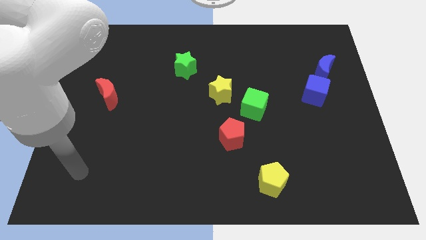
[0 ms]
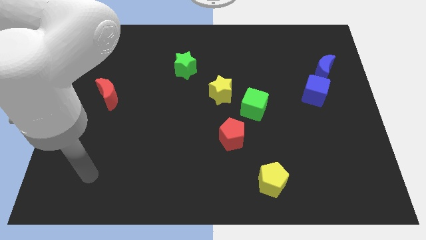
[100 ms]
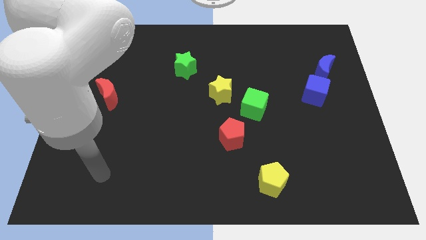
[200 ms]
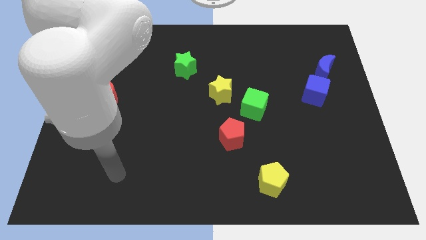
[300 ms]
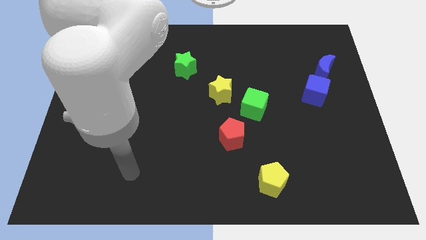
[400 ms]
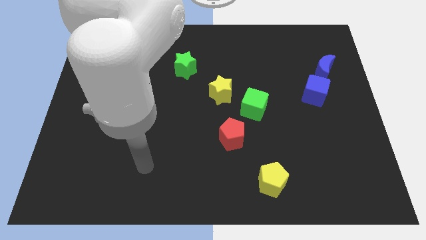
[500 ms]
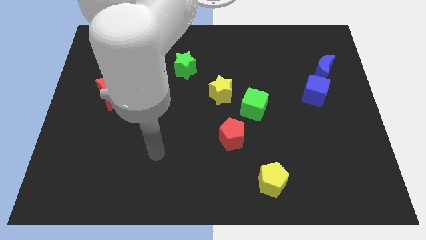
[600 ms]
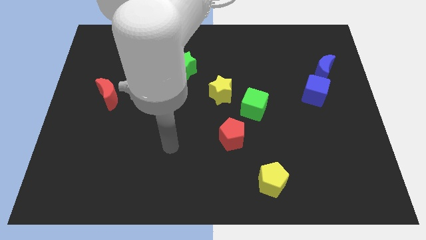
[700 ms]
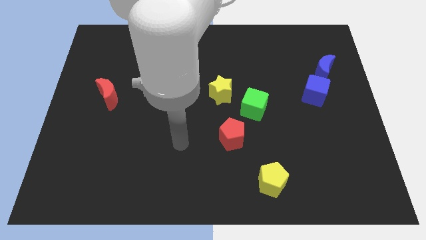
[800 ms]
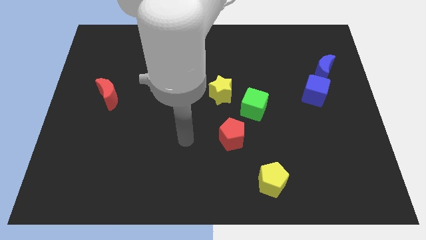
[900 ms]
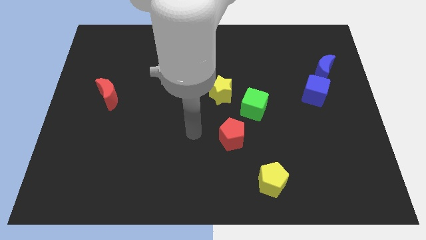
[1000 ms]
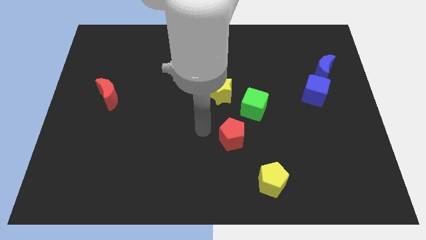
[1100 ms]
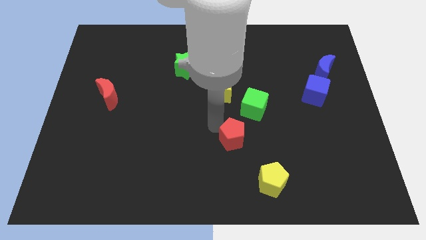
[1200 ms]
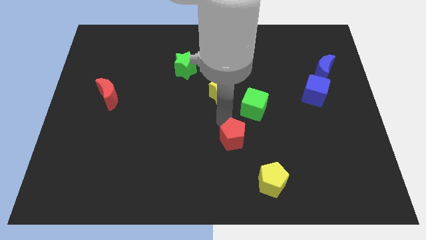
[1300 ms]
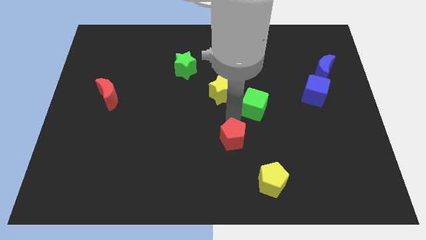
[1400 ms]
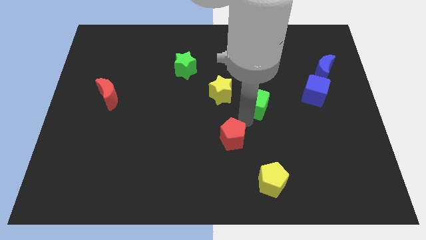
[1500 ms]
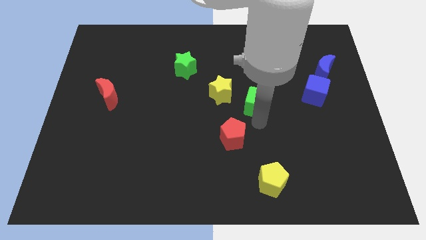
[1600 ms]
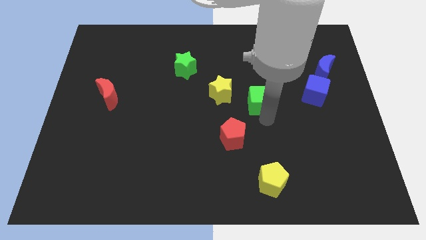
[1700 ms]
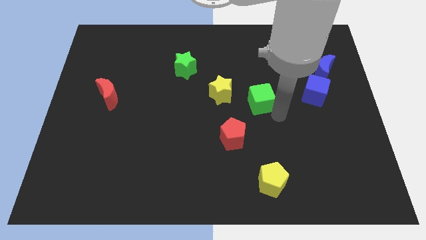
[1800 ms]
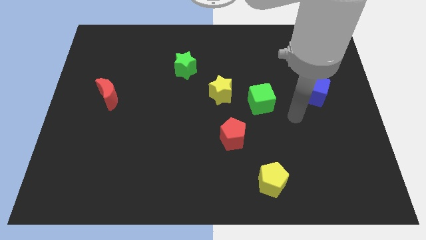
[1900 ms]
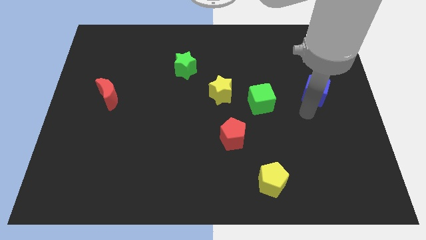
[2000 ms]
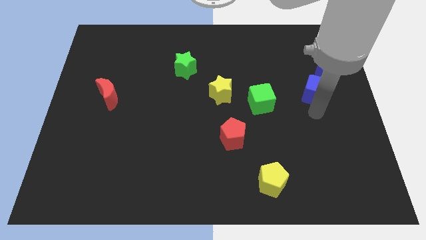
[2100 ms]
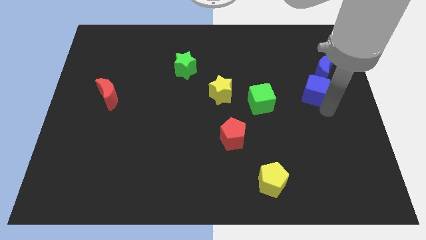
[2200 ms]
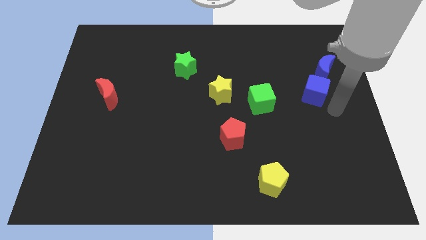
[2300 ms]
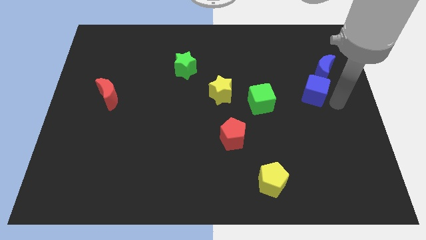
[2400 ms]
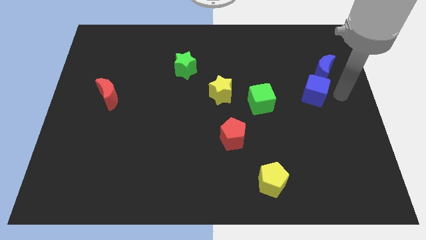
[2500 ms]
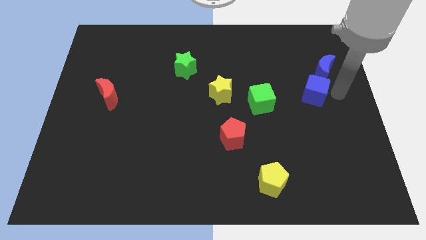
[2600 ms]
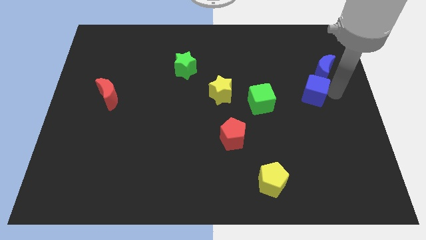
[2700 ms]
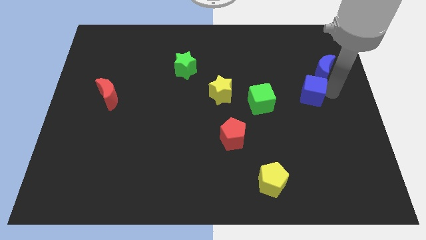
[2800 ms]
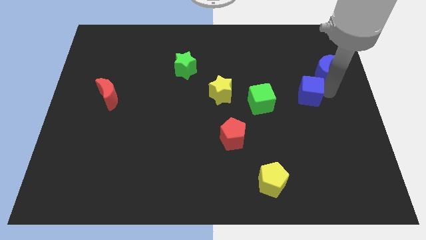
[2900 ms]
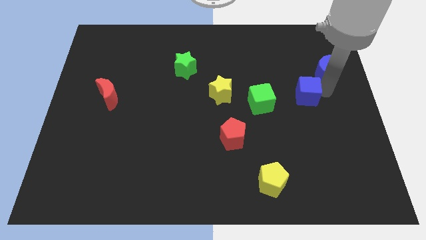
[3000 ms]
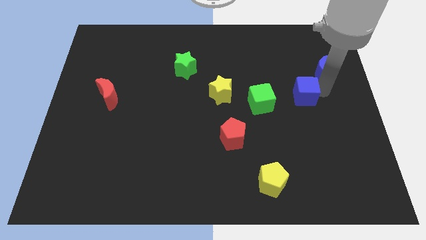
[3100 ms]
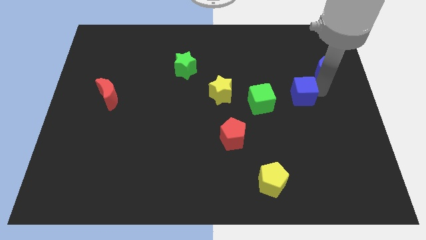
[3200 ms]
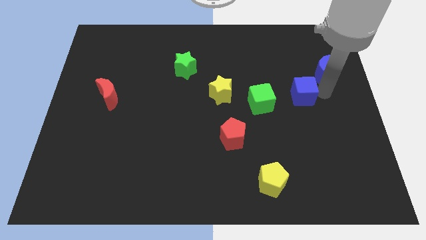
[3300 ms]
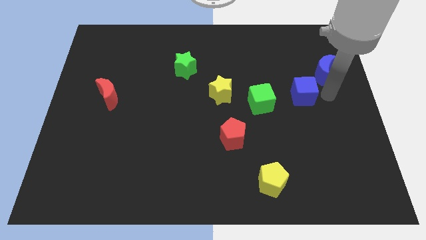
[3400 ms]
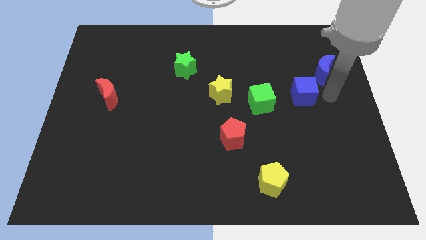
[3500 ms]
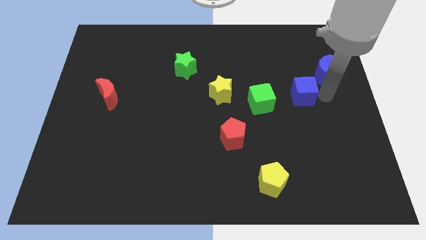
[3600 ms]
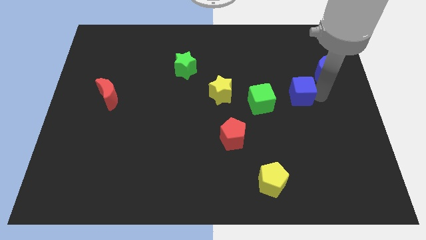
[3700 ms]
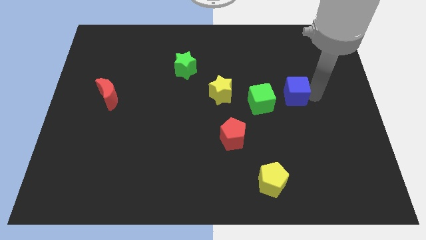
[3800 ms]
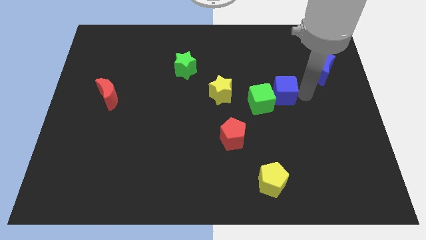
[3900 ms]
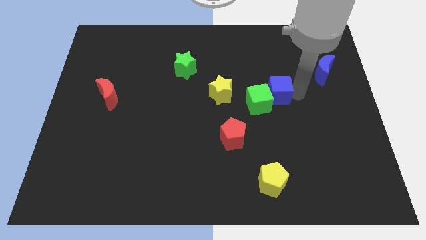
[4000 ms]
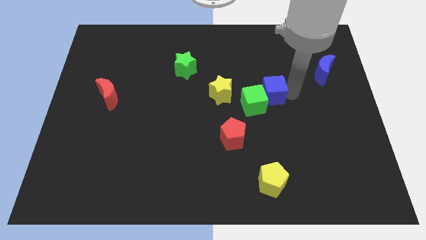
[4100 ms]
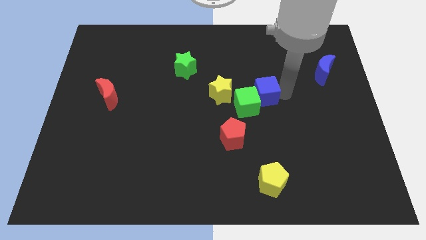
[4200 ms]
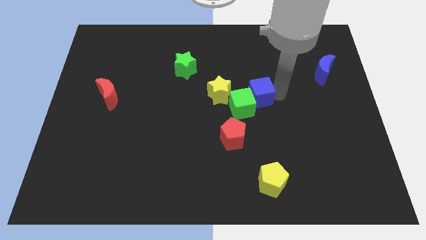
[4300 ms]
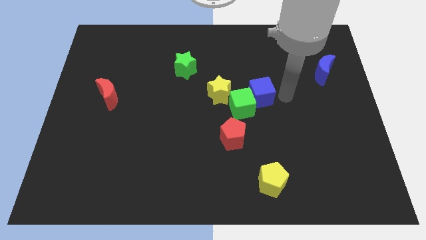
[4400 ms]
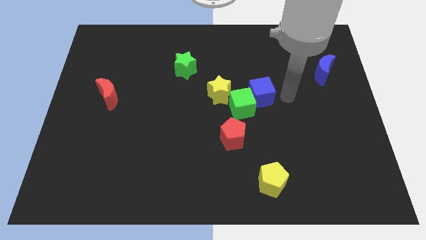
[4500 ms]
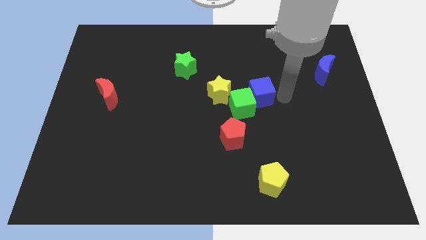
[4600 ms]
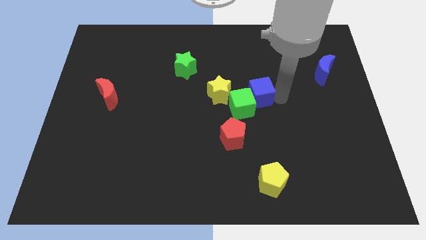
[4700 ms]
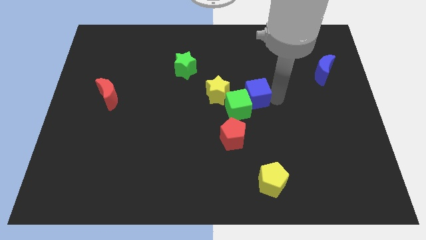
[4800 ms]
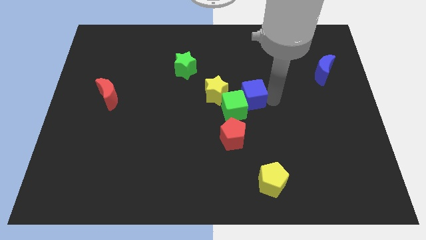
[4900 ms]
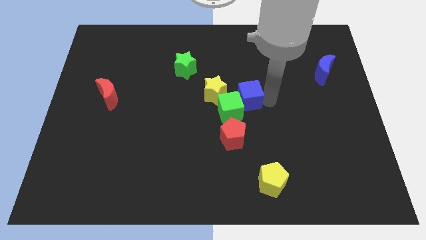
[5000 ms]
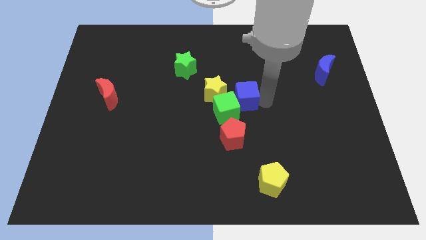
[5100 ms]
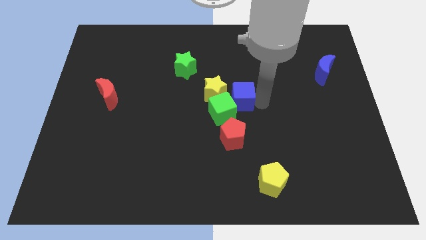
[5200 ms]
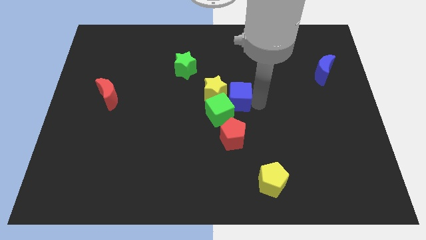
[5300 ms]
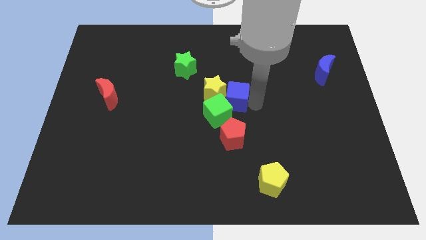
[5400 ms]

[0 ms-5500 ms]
move the blue cube to the yellow star

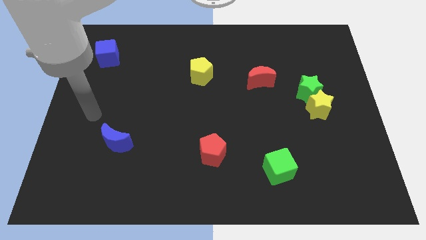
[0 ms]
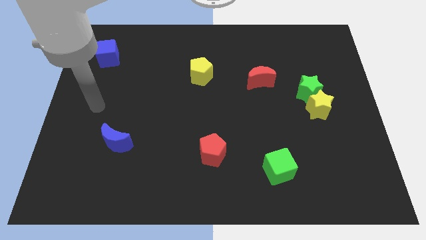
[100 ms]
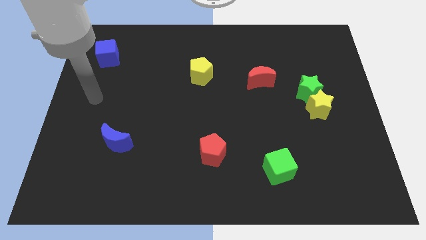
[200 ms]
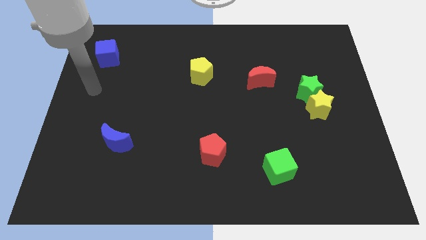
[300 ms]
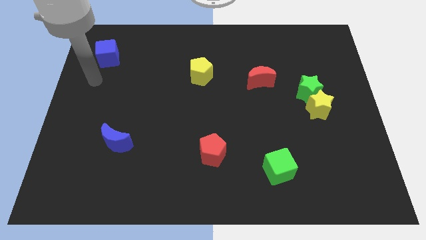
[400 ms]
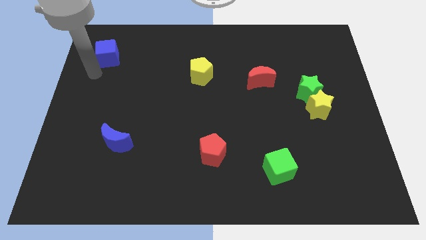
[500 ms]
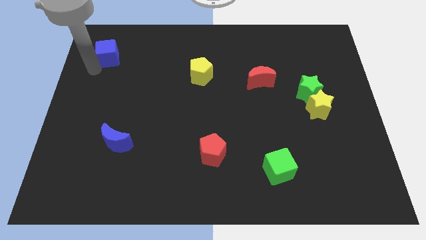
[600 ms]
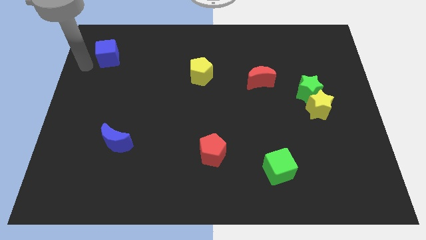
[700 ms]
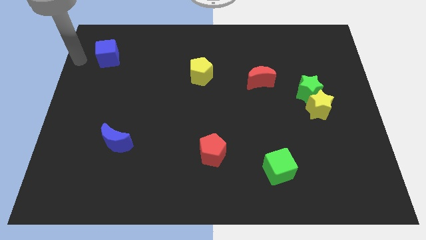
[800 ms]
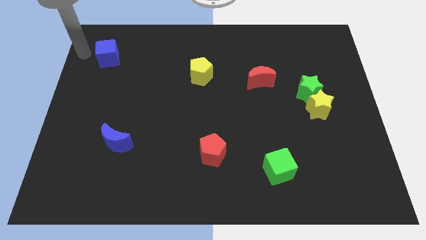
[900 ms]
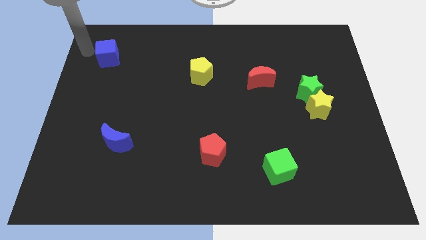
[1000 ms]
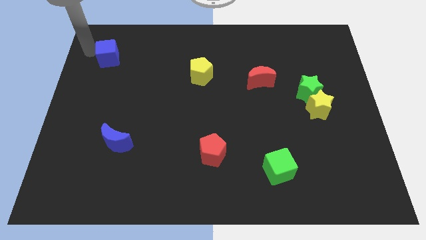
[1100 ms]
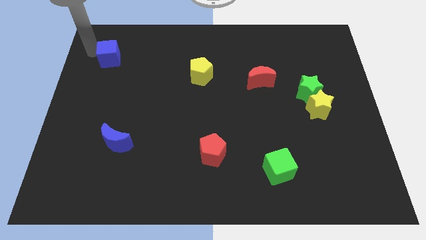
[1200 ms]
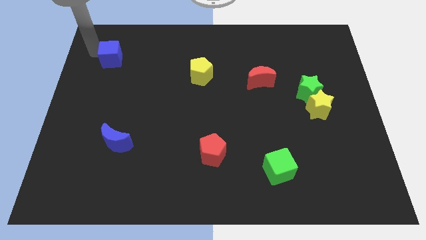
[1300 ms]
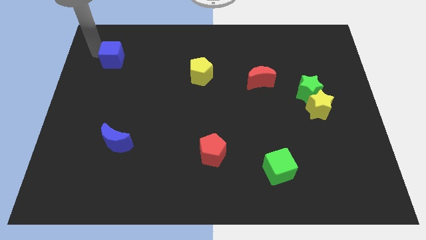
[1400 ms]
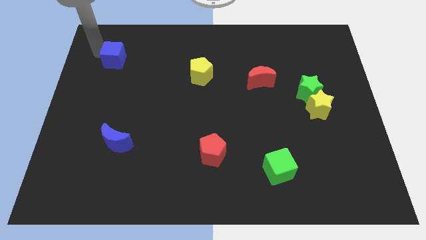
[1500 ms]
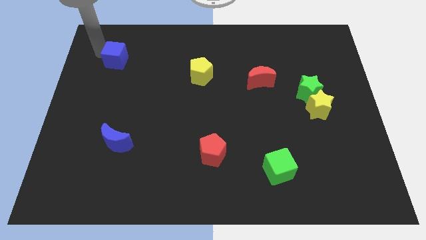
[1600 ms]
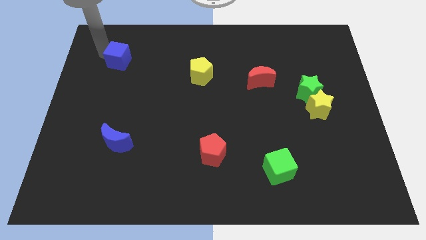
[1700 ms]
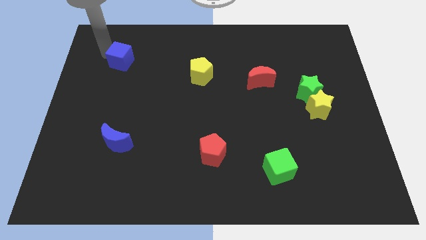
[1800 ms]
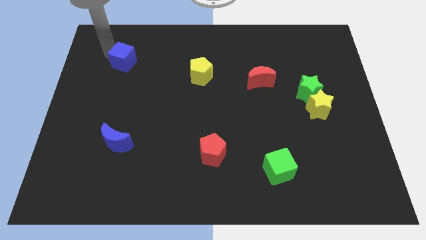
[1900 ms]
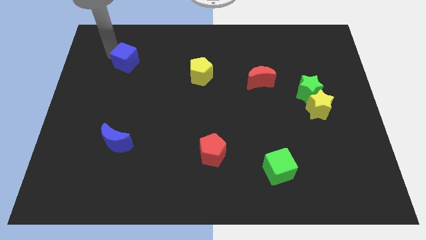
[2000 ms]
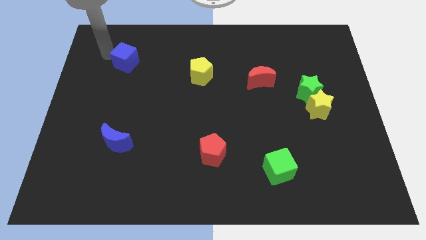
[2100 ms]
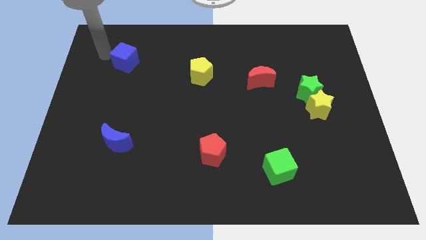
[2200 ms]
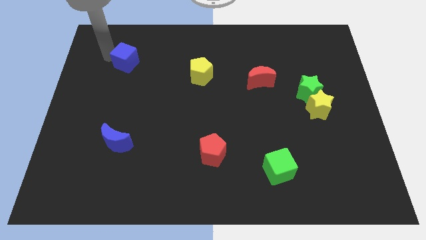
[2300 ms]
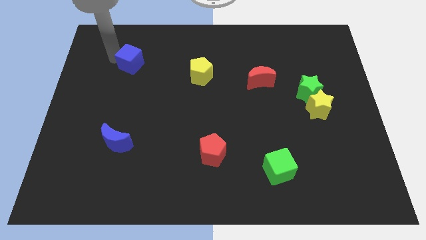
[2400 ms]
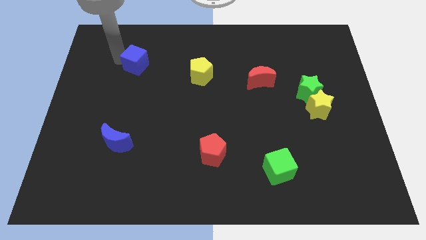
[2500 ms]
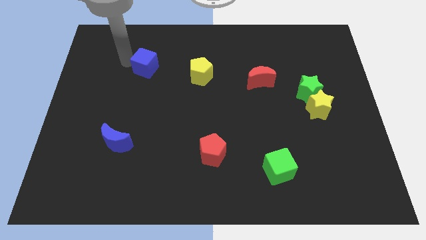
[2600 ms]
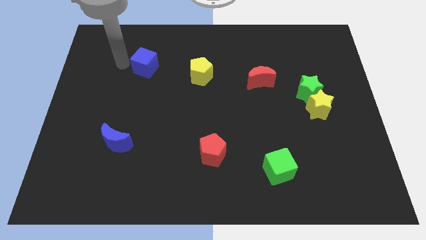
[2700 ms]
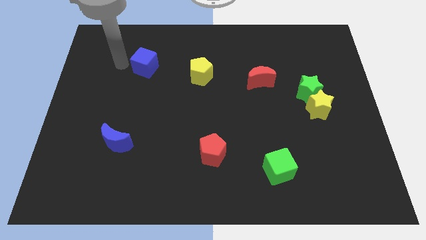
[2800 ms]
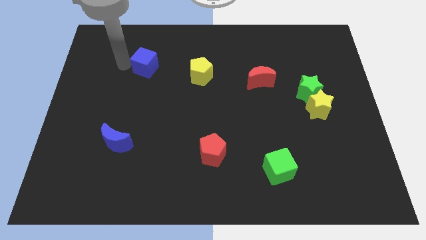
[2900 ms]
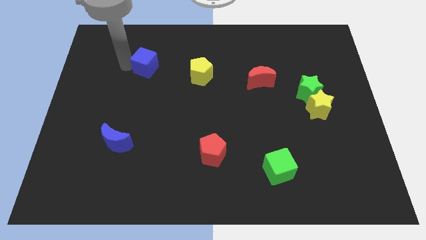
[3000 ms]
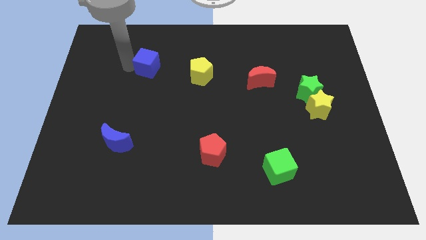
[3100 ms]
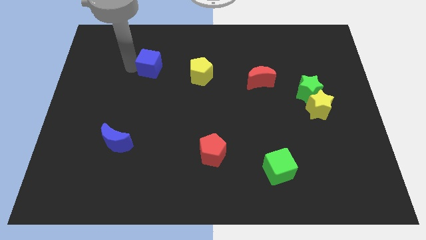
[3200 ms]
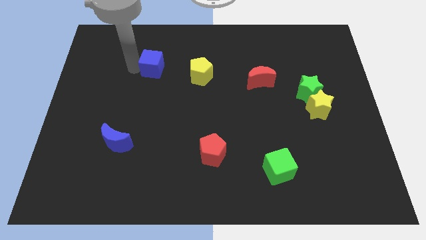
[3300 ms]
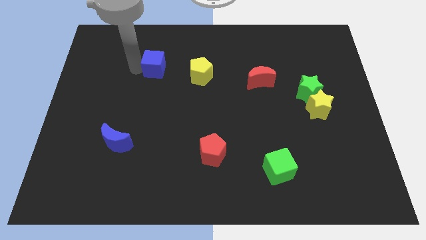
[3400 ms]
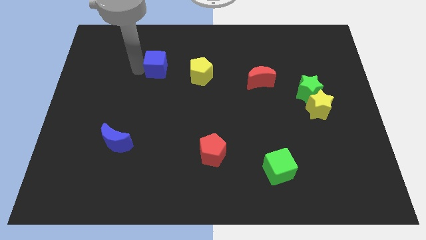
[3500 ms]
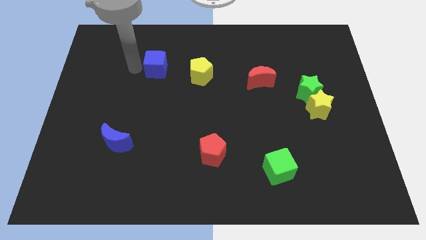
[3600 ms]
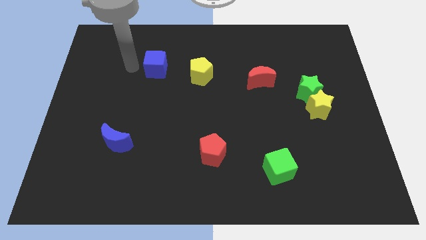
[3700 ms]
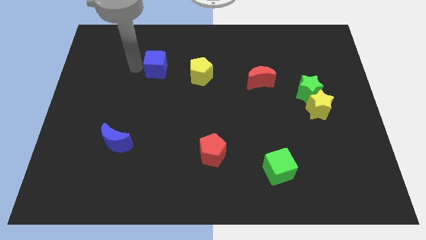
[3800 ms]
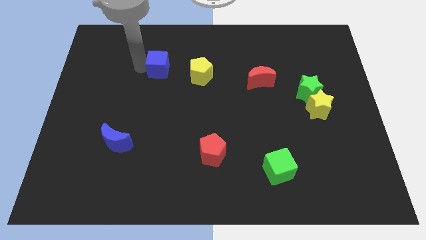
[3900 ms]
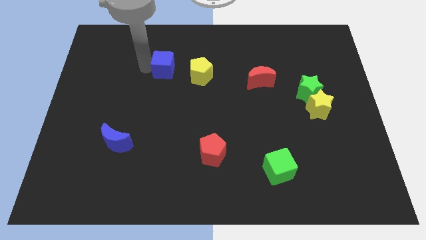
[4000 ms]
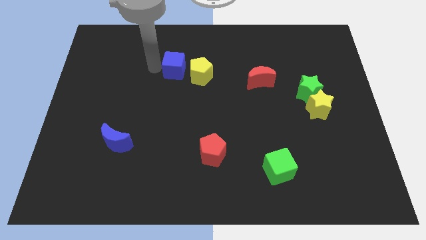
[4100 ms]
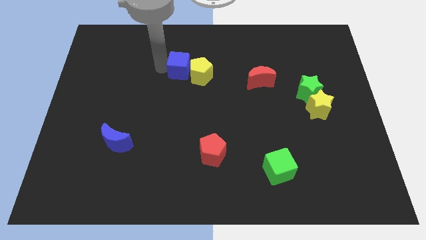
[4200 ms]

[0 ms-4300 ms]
put the blue cube next to the yellow pentagon
